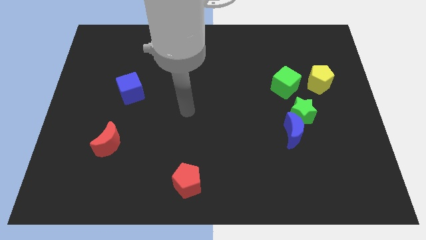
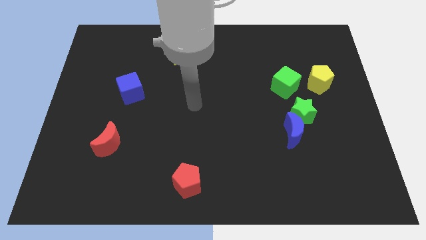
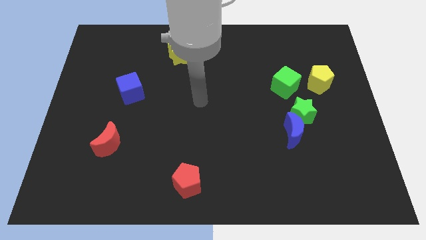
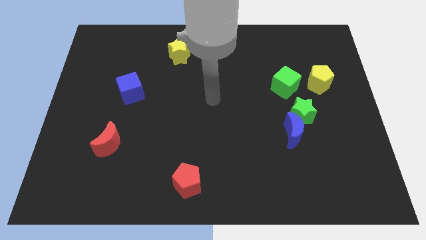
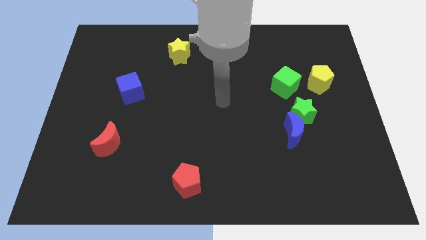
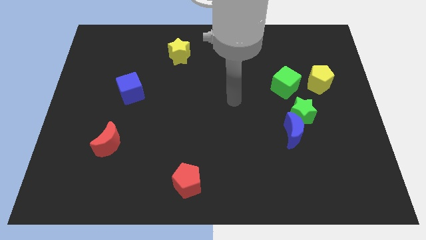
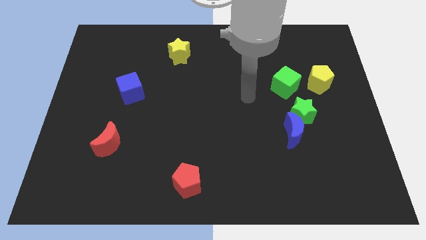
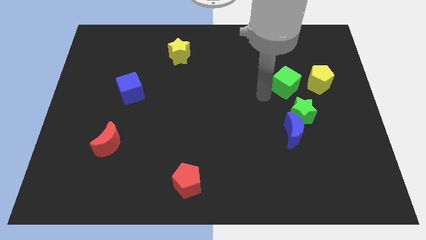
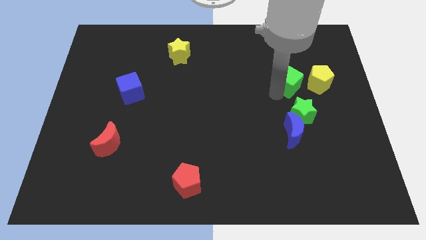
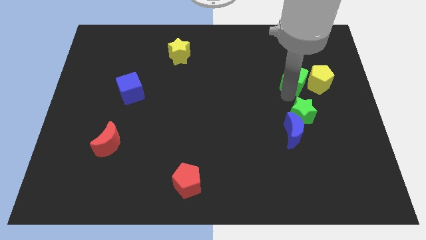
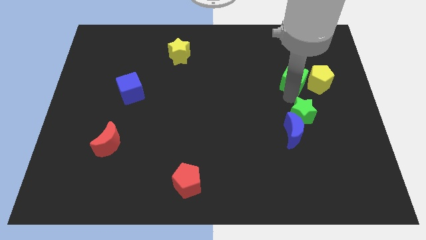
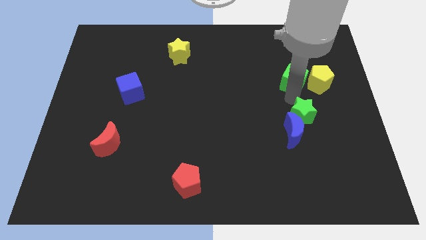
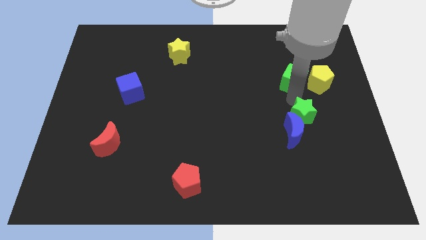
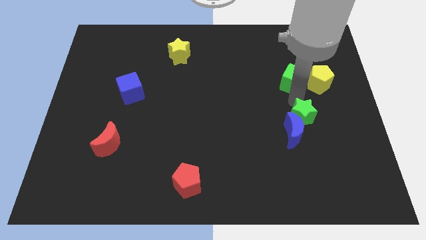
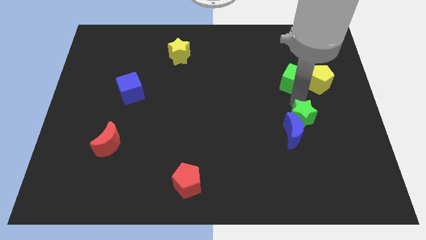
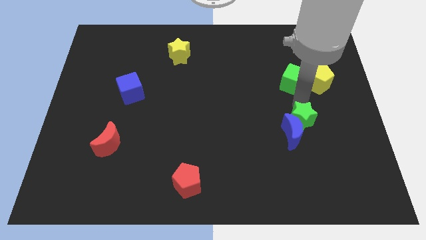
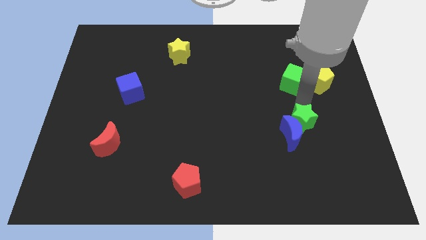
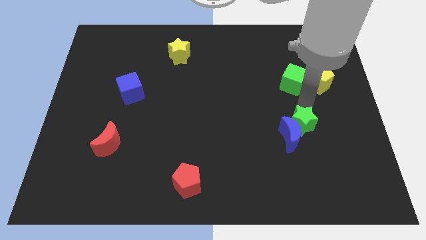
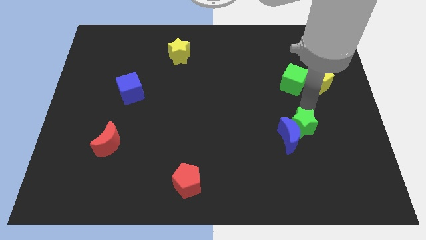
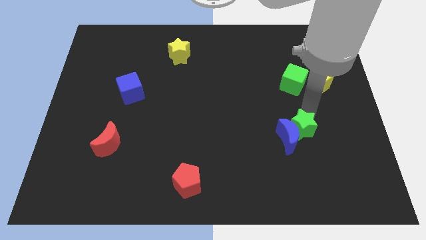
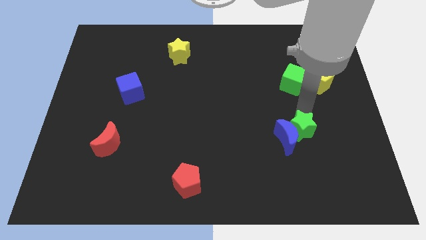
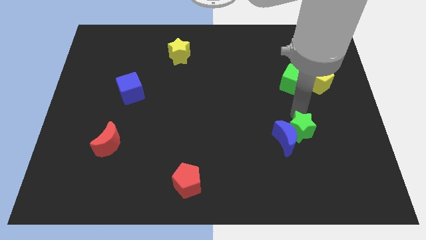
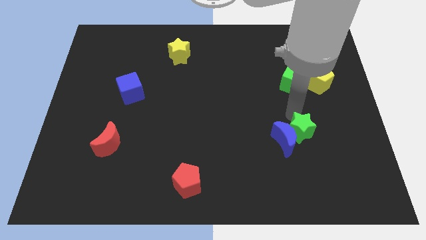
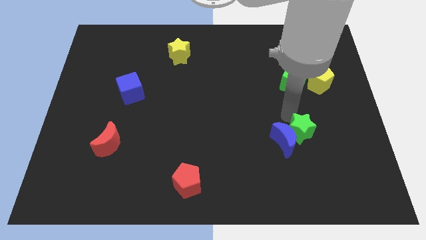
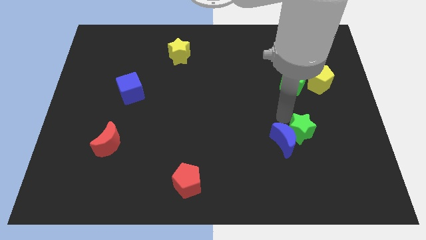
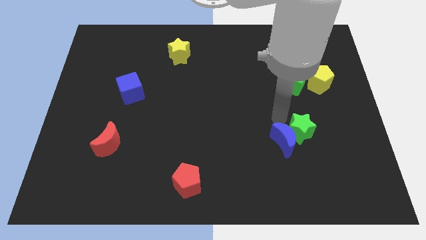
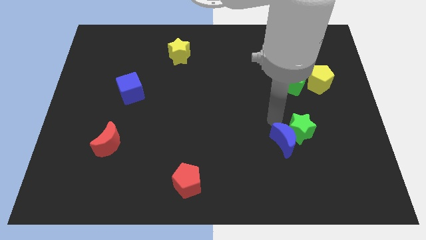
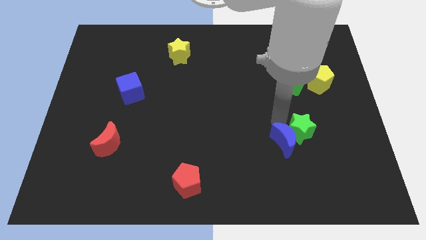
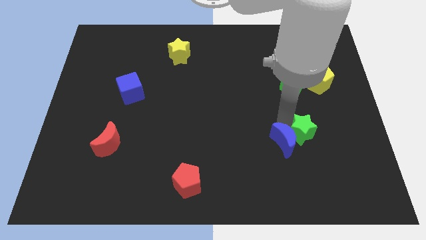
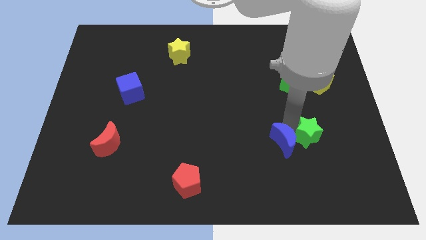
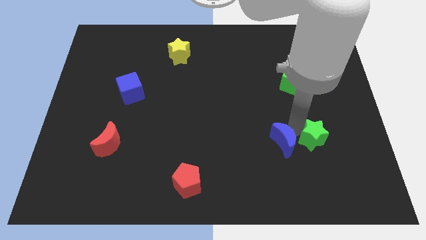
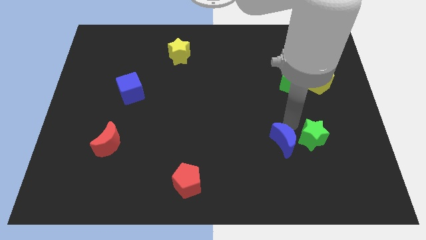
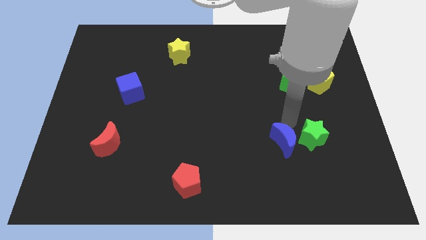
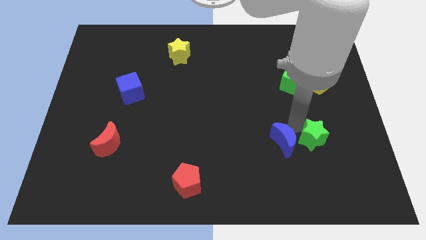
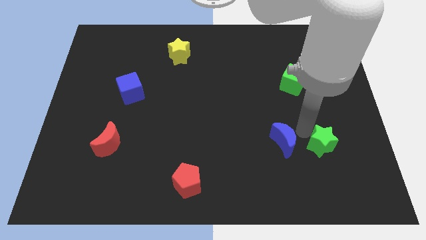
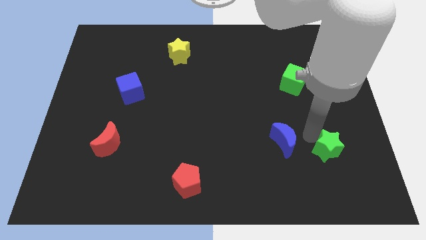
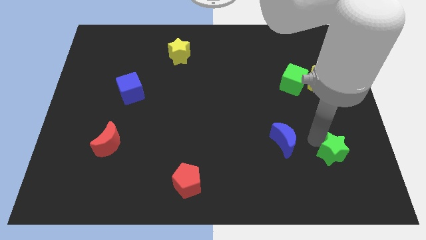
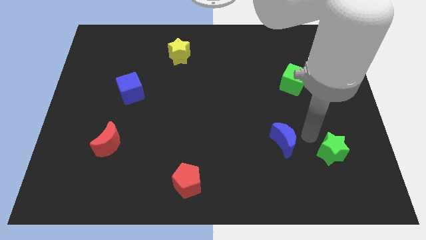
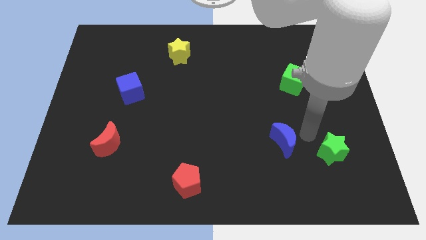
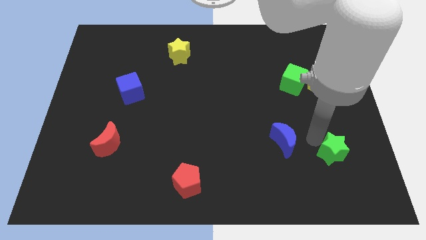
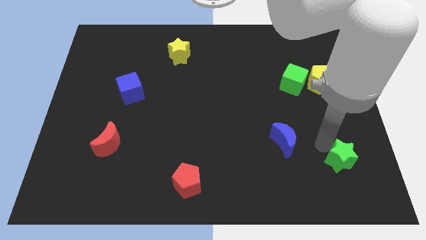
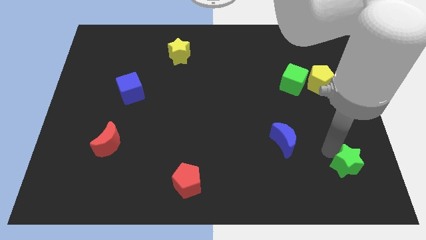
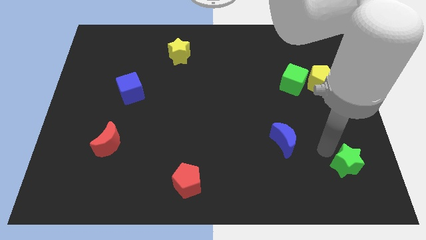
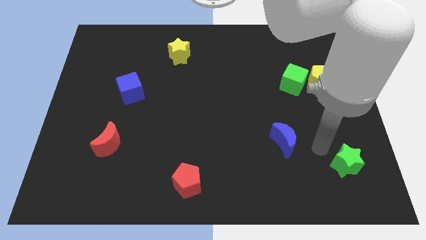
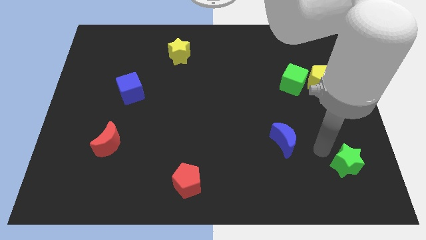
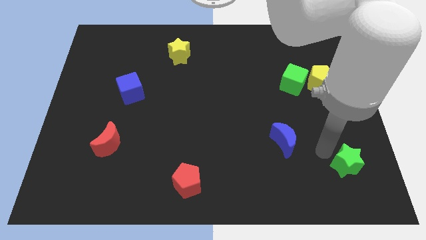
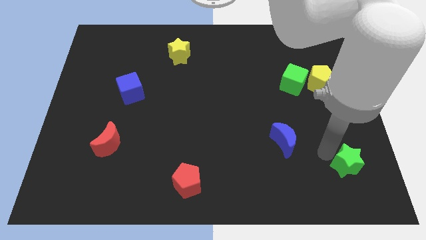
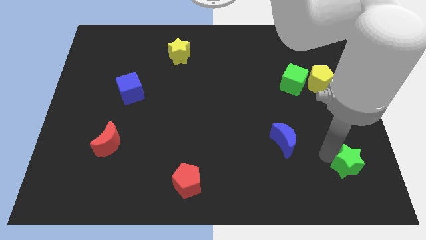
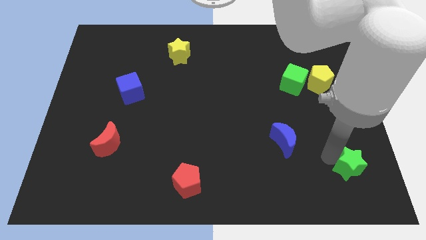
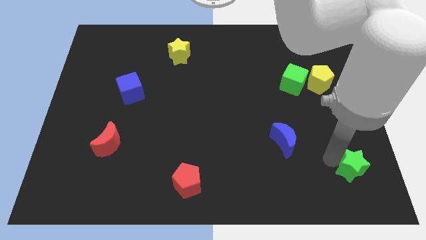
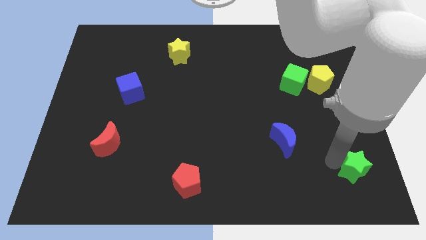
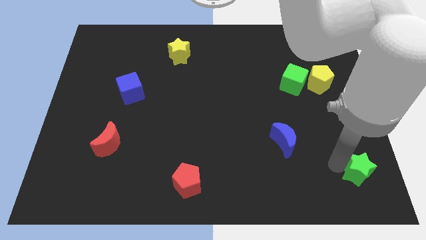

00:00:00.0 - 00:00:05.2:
push the green star to the lower right corner
